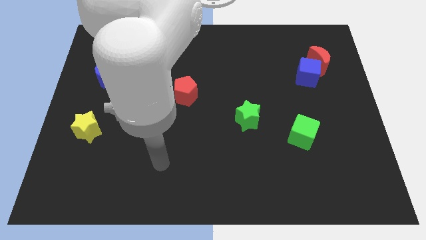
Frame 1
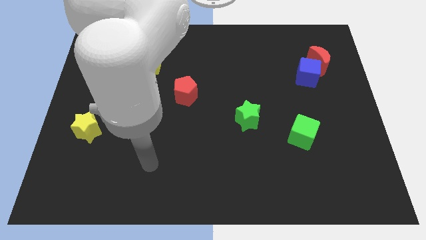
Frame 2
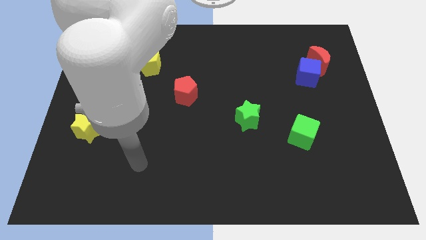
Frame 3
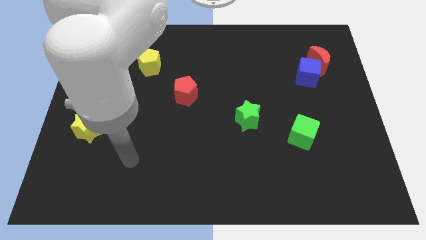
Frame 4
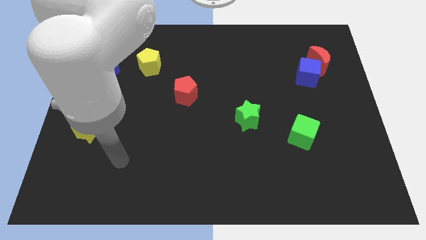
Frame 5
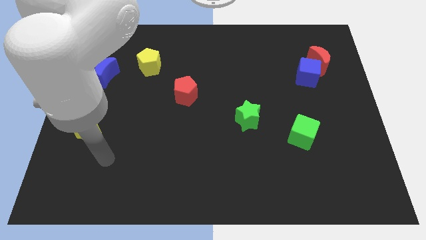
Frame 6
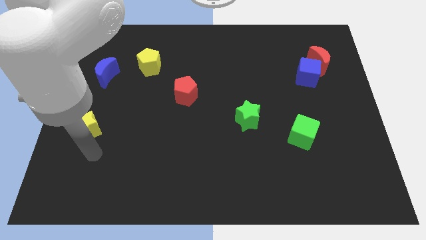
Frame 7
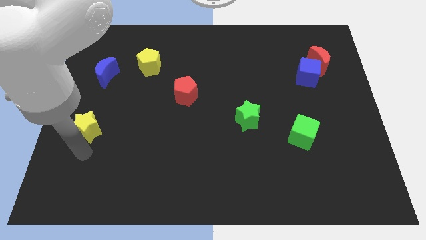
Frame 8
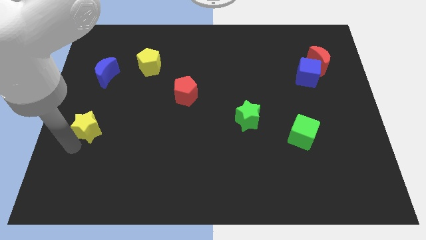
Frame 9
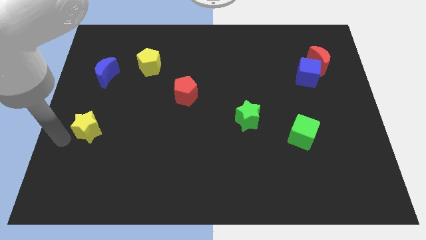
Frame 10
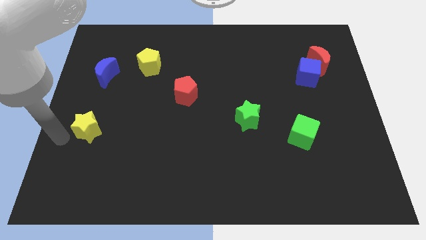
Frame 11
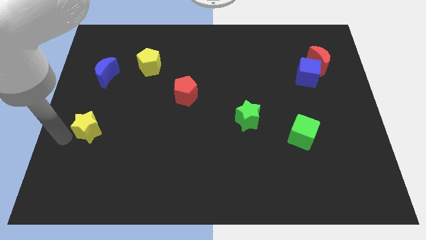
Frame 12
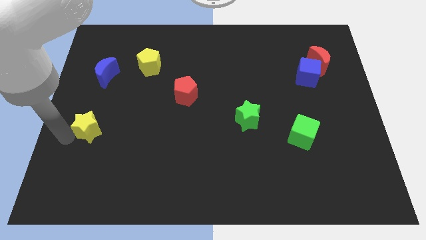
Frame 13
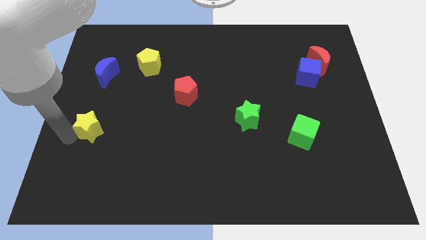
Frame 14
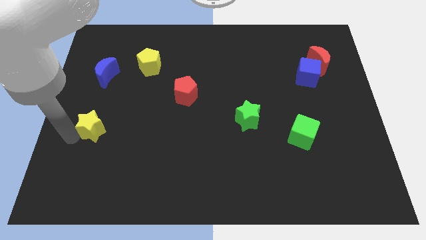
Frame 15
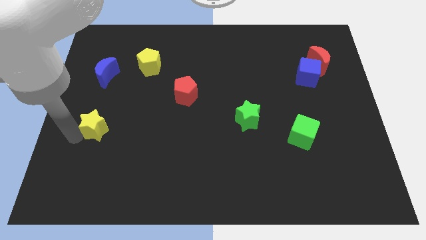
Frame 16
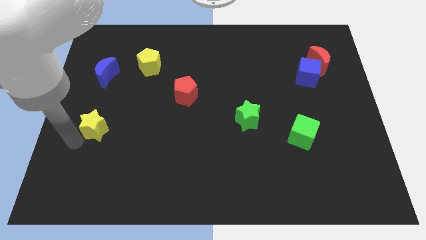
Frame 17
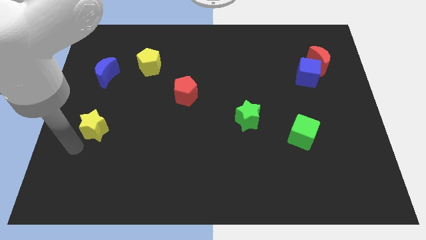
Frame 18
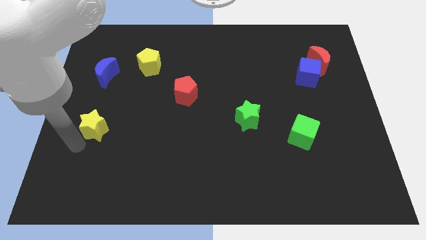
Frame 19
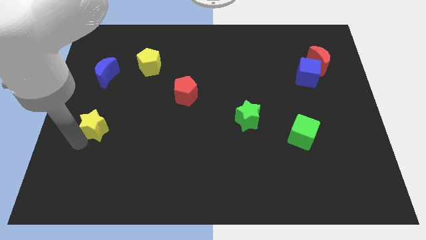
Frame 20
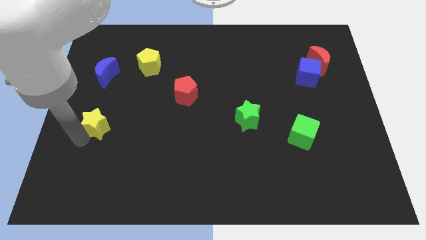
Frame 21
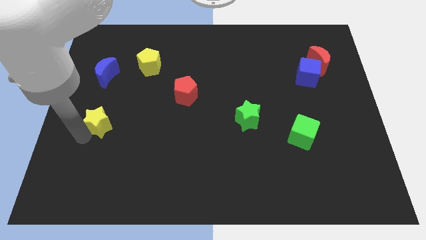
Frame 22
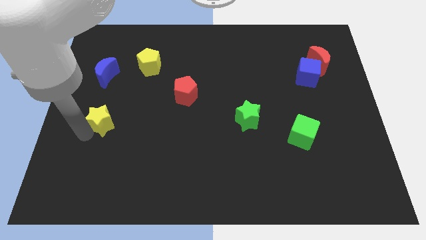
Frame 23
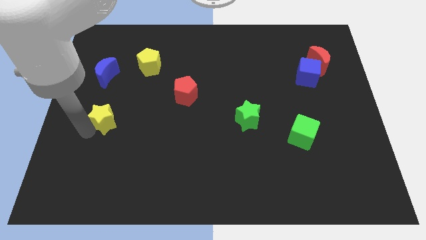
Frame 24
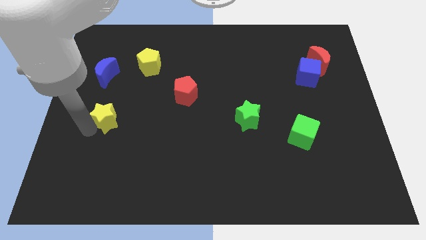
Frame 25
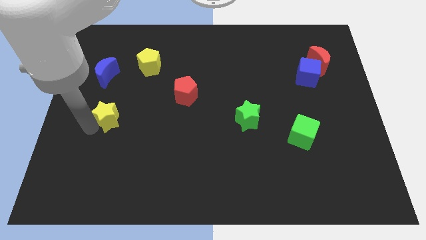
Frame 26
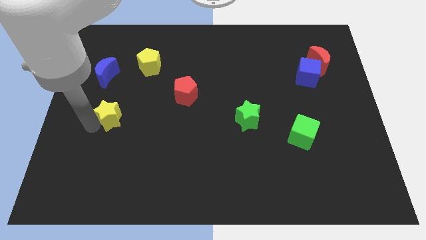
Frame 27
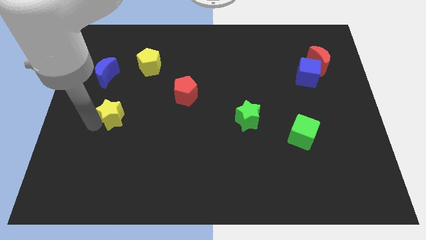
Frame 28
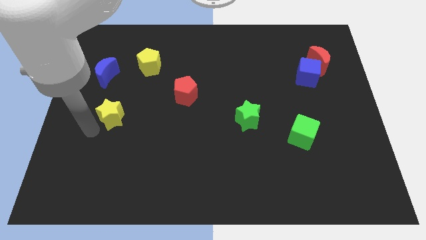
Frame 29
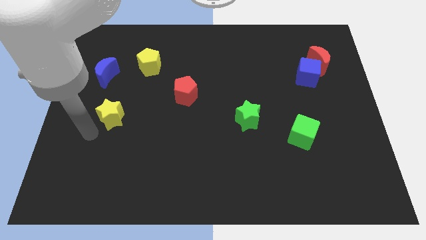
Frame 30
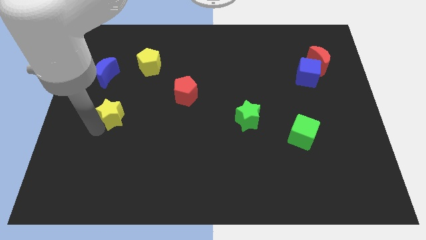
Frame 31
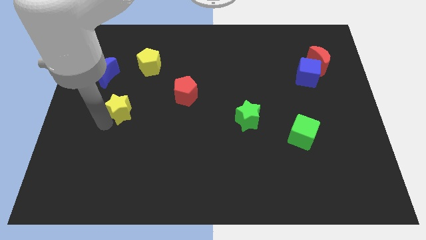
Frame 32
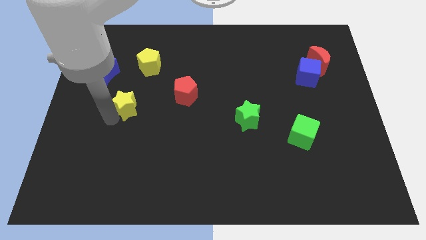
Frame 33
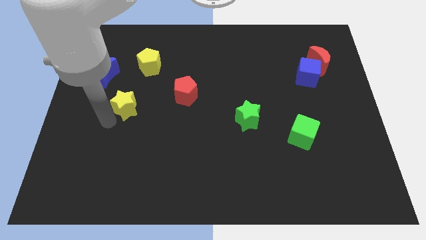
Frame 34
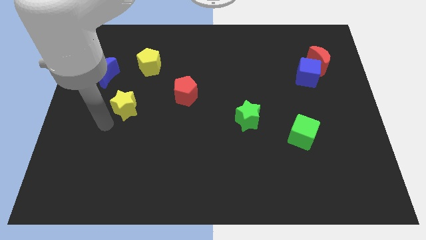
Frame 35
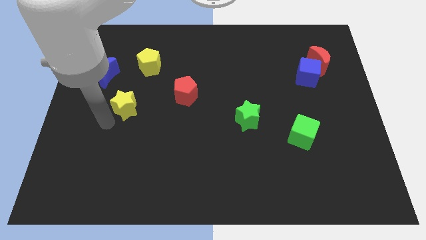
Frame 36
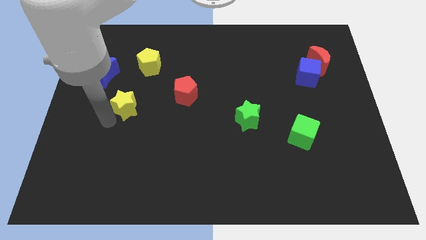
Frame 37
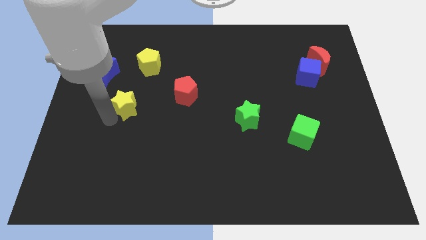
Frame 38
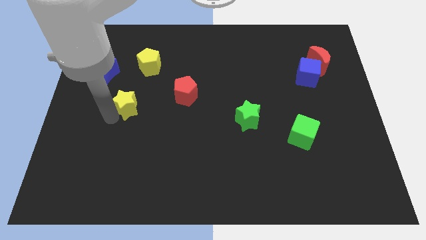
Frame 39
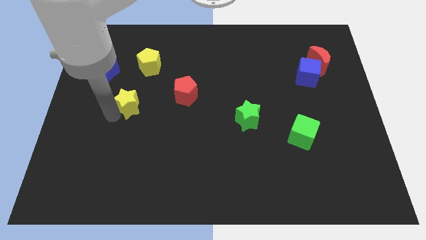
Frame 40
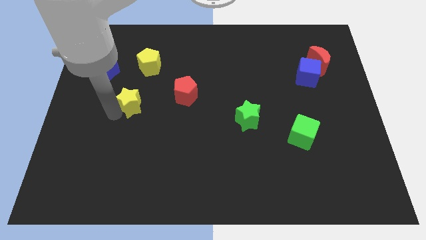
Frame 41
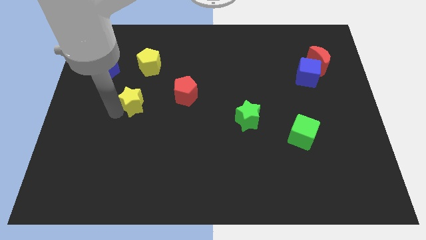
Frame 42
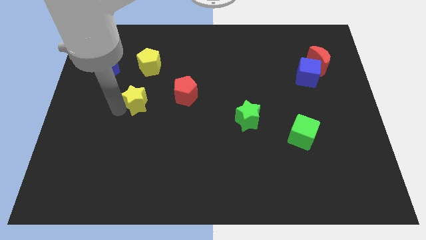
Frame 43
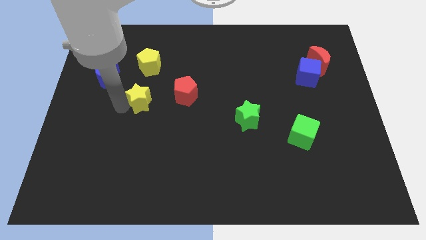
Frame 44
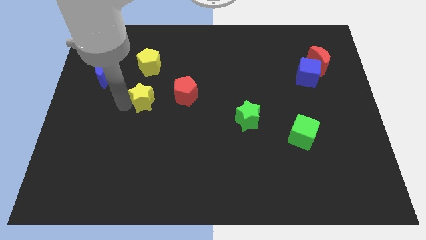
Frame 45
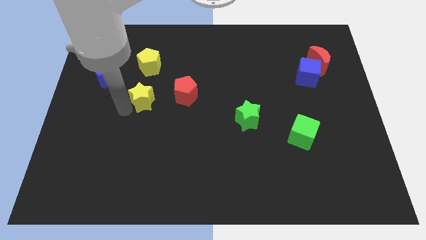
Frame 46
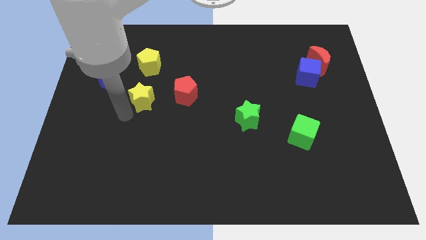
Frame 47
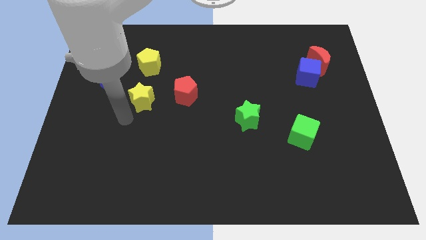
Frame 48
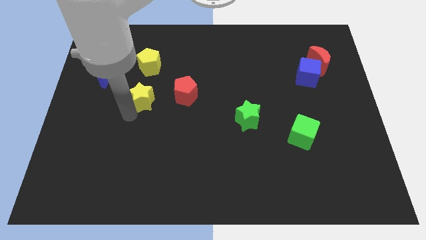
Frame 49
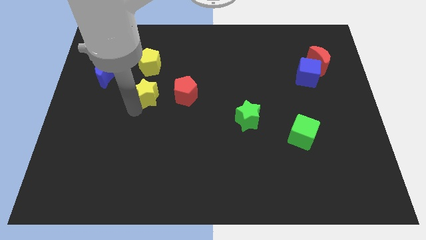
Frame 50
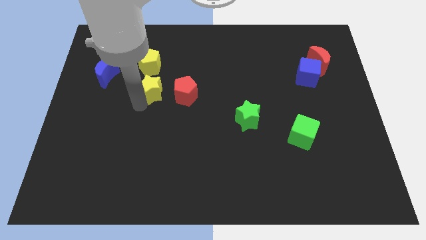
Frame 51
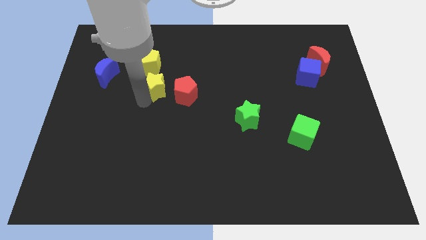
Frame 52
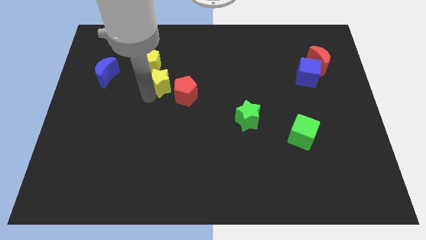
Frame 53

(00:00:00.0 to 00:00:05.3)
slide the yellow star diagonally up and right

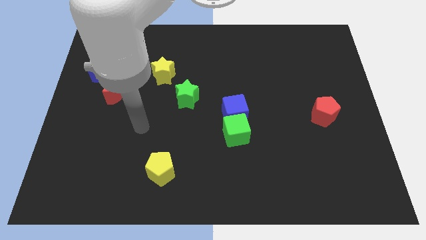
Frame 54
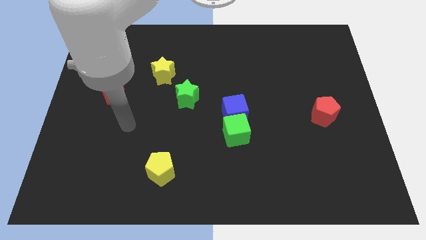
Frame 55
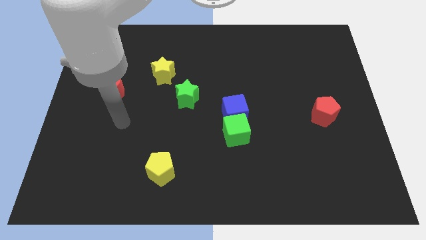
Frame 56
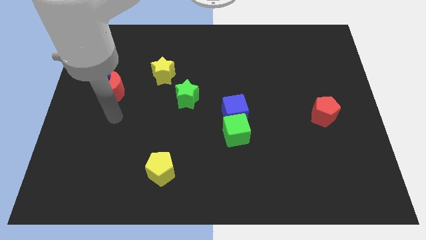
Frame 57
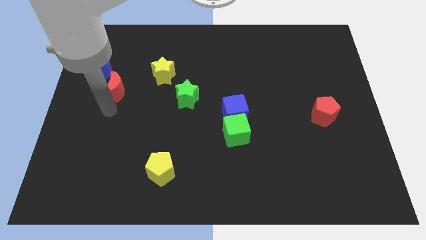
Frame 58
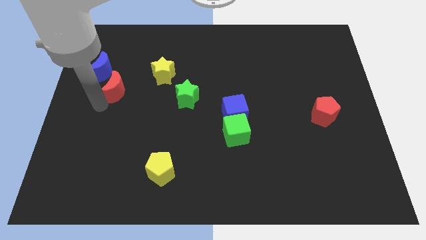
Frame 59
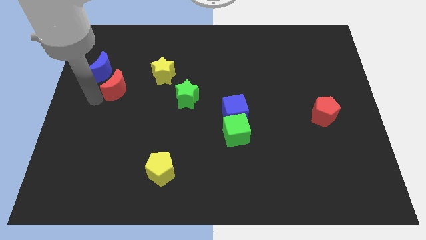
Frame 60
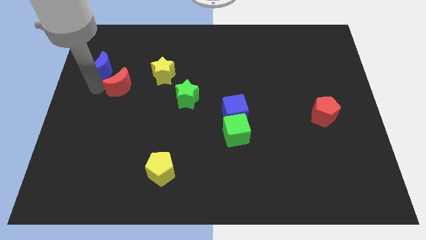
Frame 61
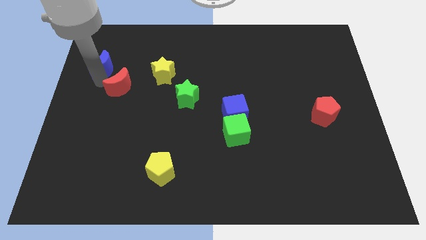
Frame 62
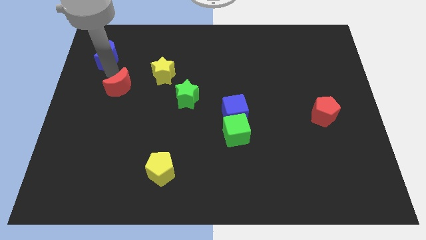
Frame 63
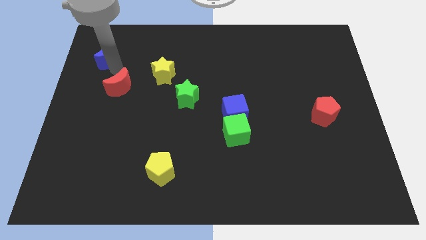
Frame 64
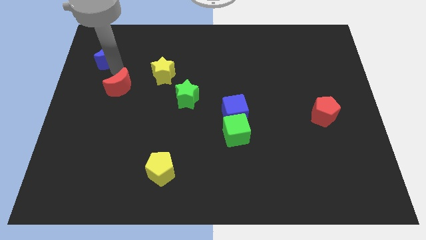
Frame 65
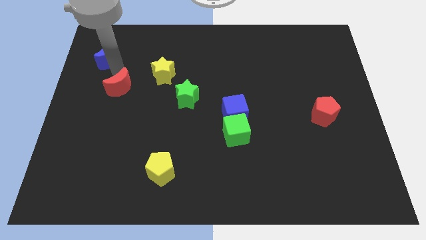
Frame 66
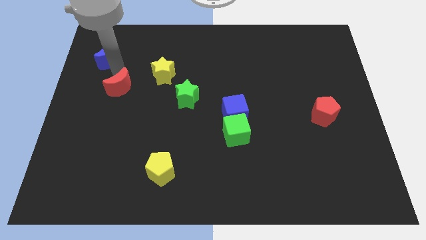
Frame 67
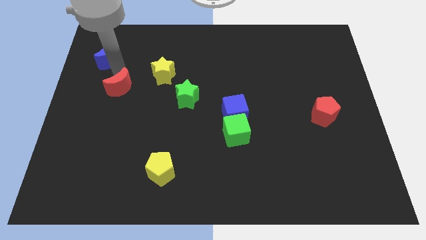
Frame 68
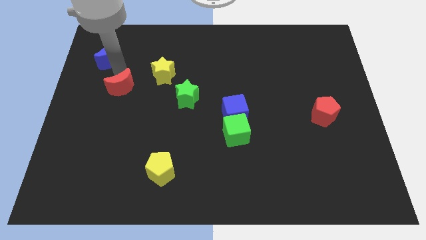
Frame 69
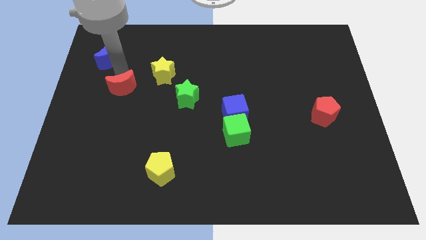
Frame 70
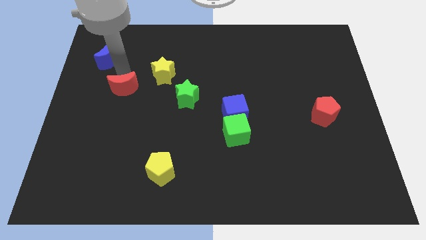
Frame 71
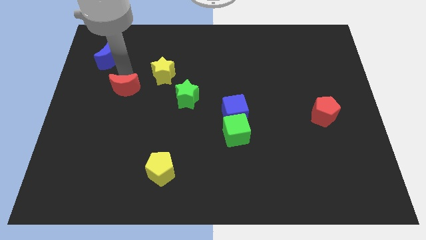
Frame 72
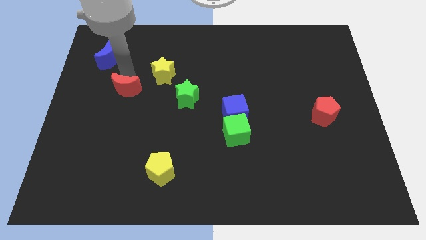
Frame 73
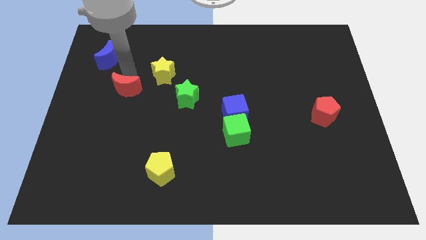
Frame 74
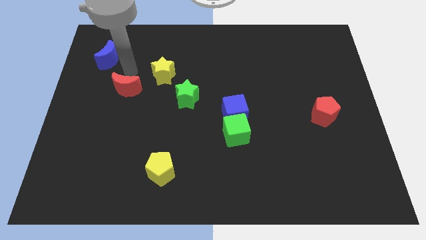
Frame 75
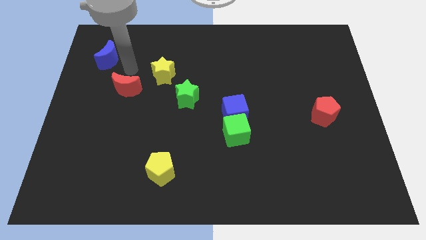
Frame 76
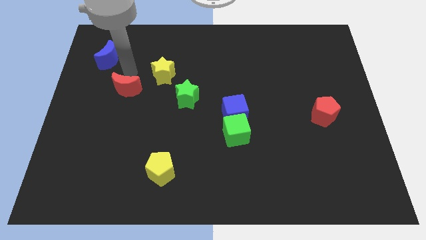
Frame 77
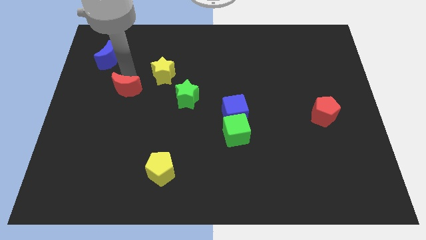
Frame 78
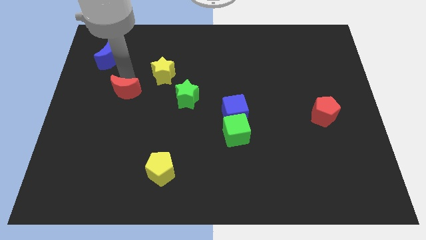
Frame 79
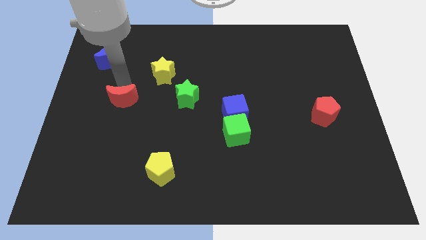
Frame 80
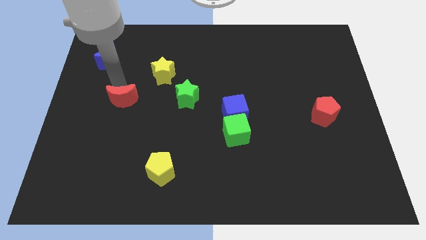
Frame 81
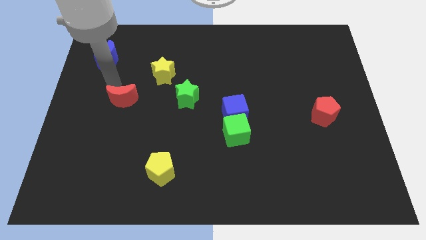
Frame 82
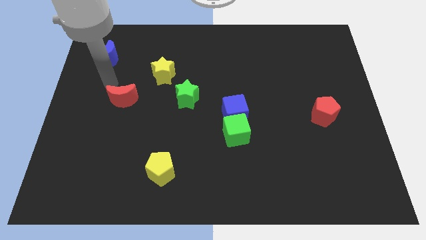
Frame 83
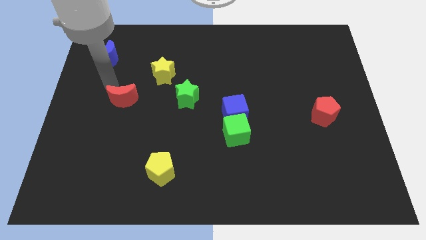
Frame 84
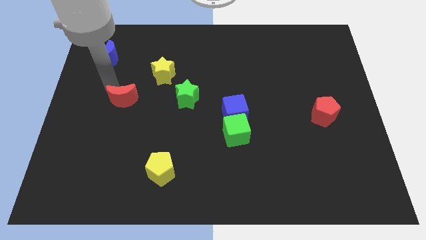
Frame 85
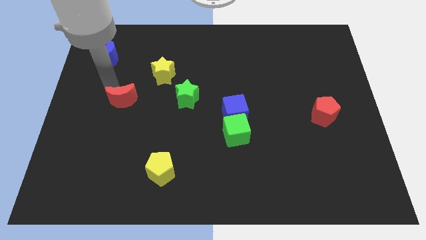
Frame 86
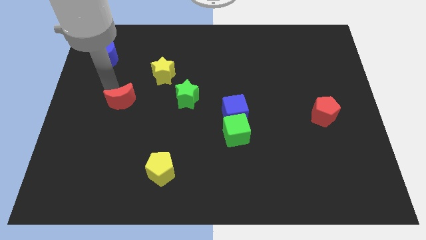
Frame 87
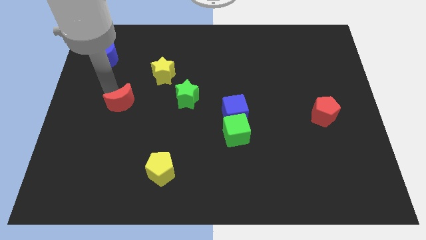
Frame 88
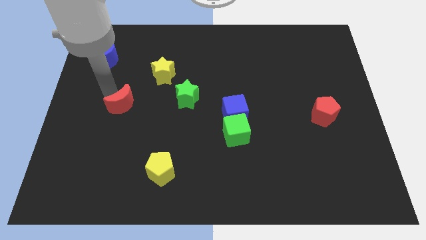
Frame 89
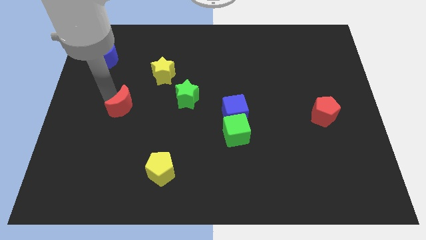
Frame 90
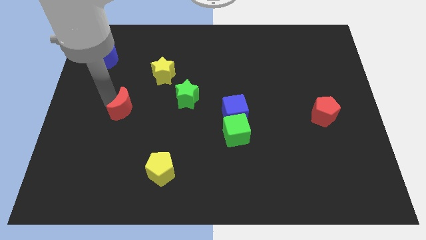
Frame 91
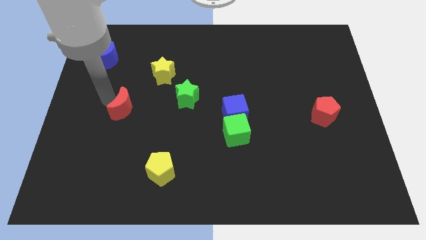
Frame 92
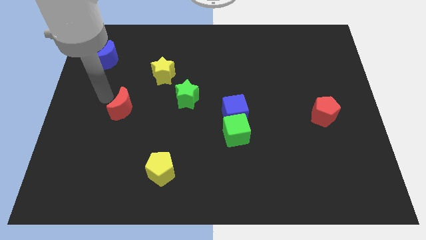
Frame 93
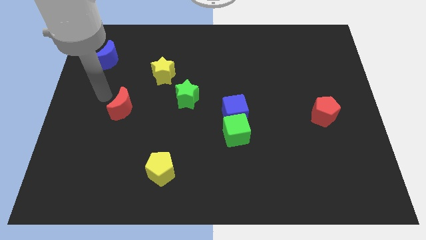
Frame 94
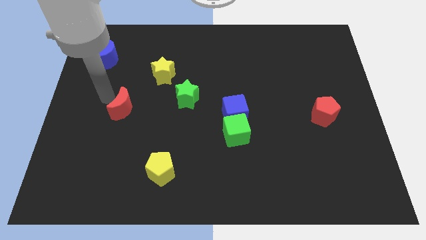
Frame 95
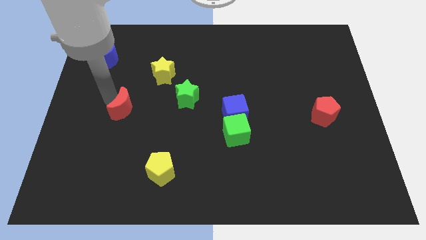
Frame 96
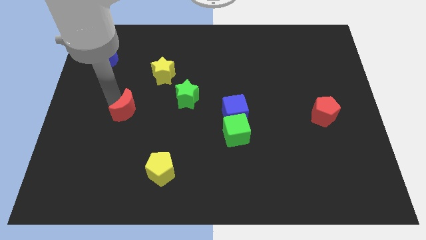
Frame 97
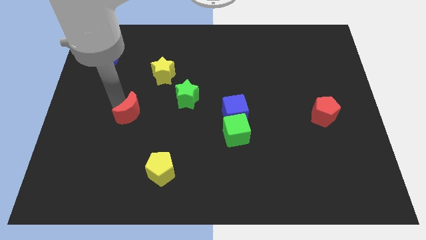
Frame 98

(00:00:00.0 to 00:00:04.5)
slightly move the red moon down and right diagonally
